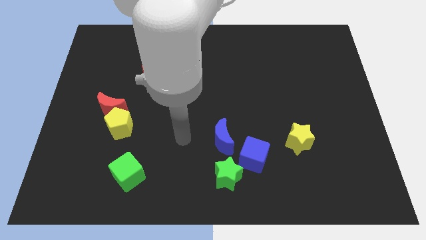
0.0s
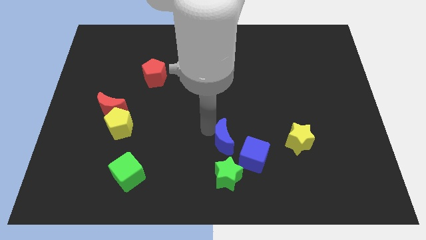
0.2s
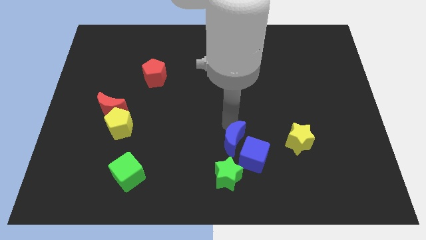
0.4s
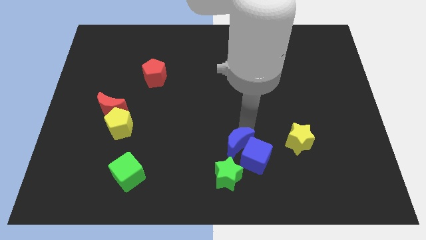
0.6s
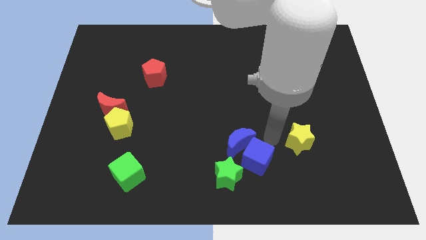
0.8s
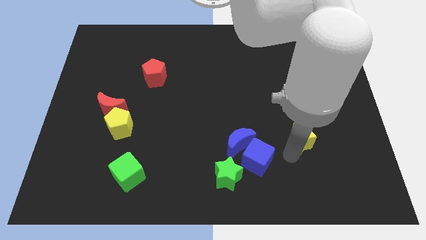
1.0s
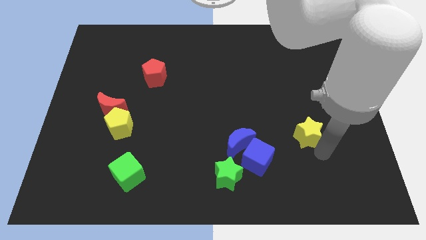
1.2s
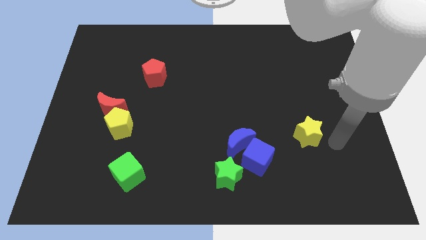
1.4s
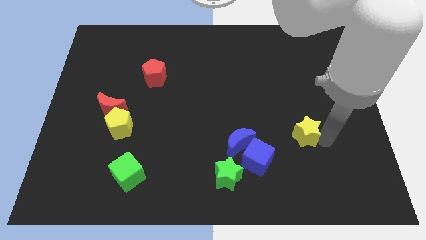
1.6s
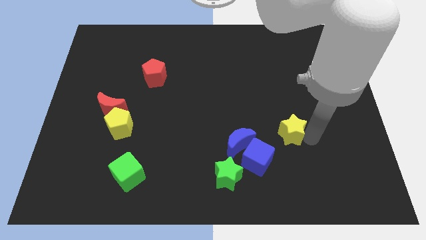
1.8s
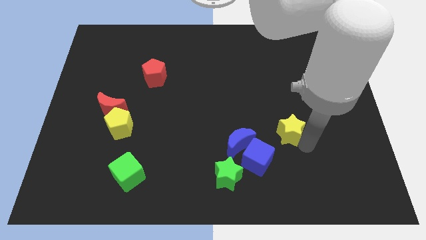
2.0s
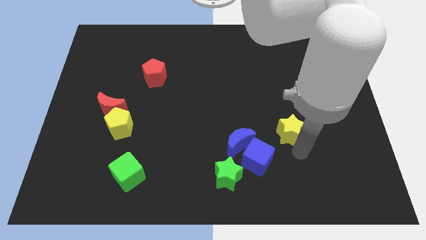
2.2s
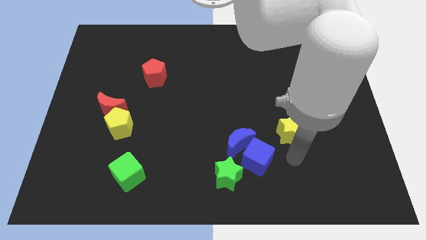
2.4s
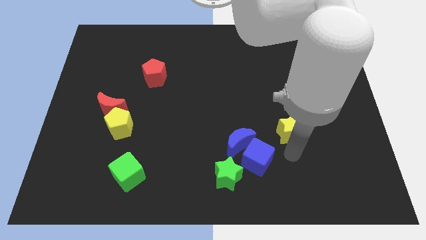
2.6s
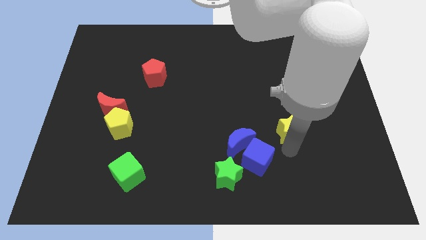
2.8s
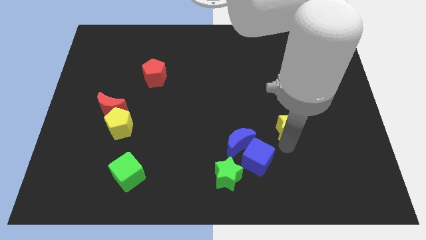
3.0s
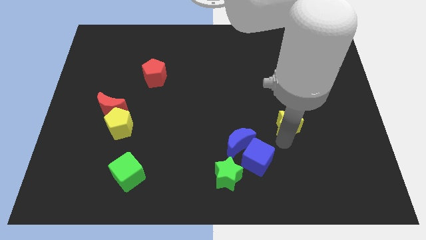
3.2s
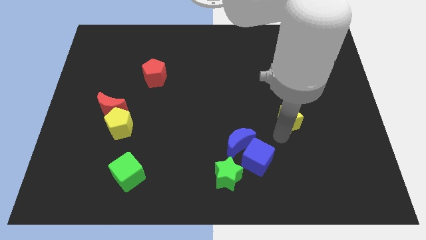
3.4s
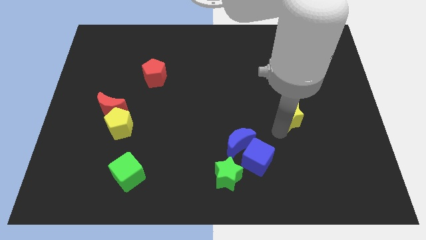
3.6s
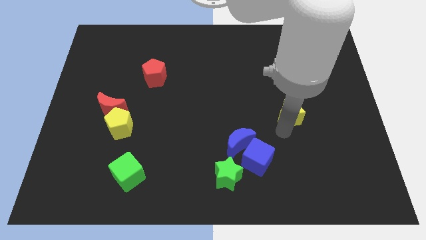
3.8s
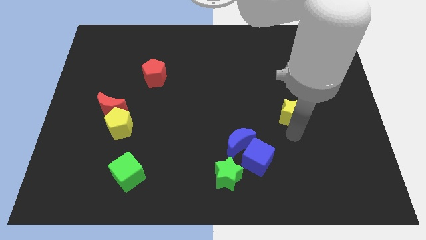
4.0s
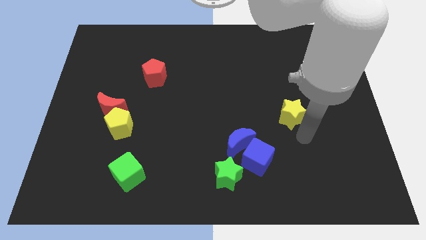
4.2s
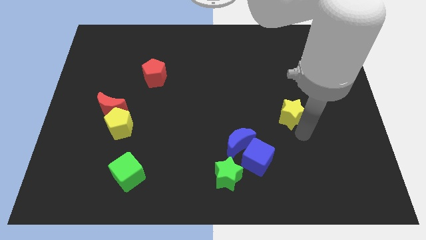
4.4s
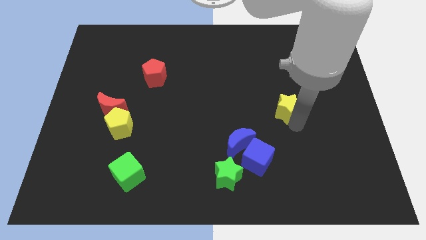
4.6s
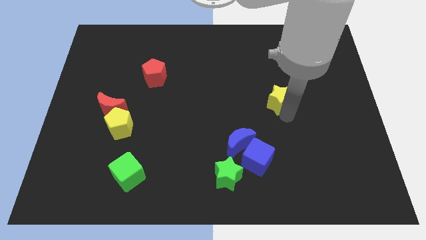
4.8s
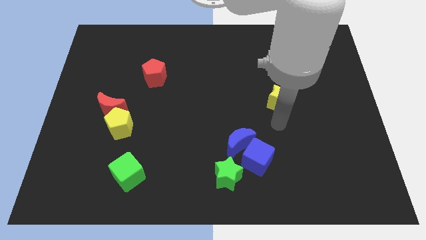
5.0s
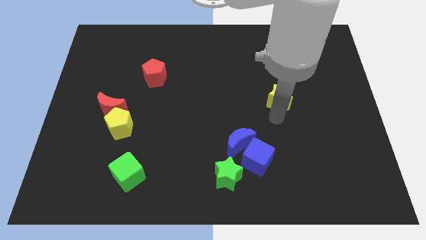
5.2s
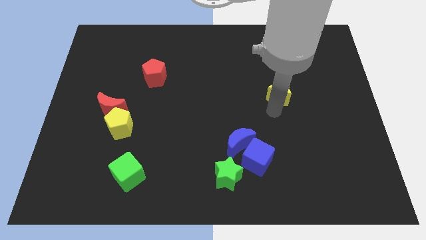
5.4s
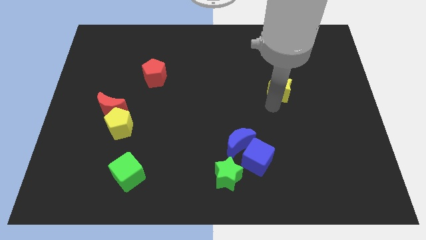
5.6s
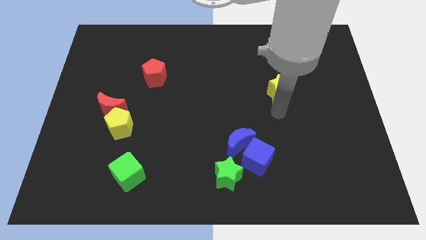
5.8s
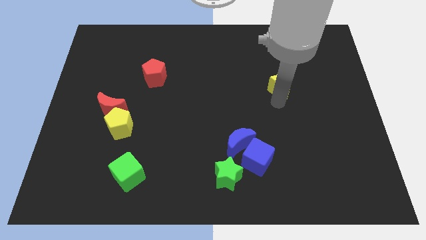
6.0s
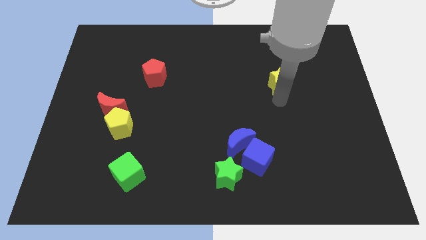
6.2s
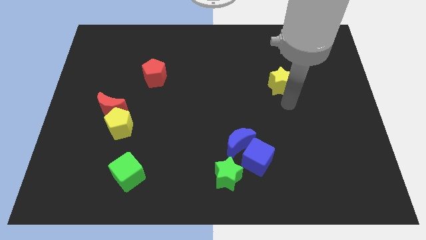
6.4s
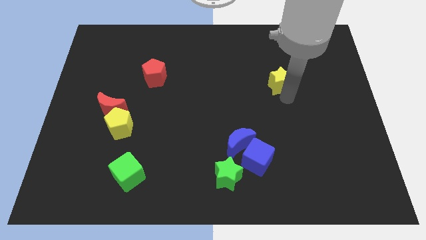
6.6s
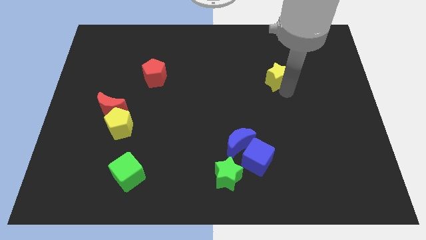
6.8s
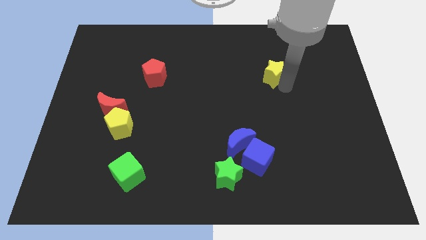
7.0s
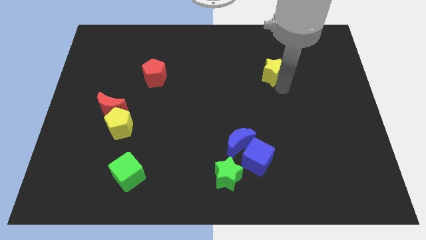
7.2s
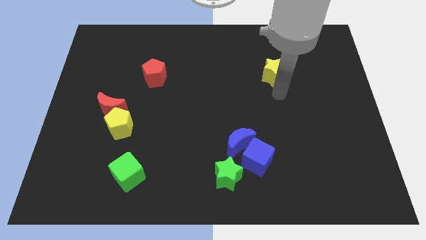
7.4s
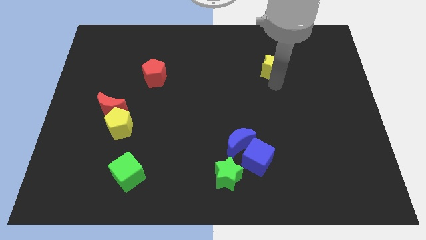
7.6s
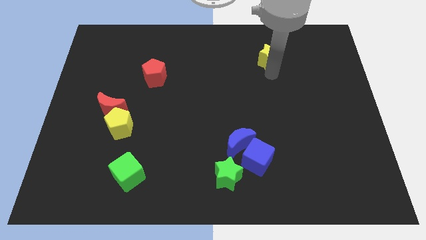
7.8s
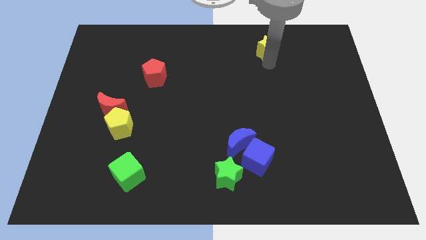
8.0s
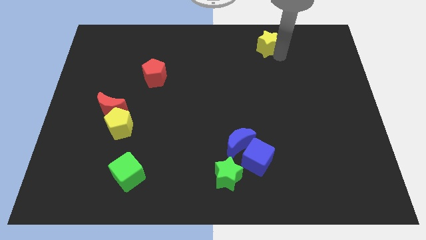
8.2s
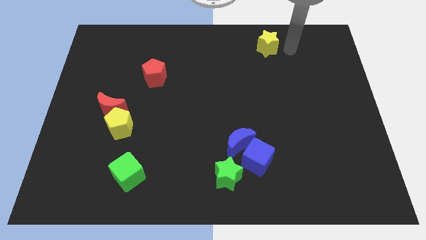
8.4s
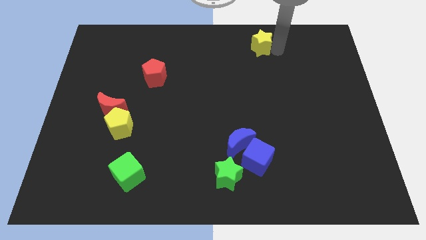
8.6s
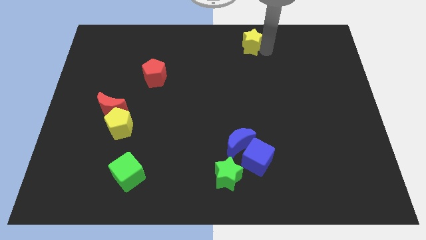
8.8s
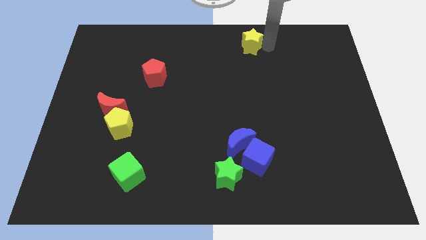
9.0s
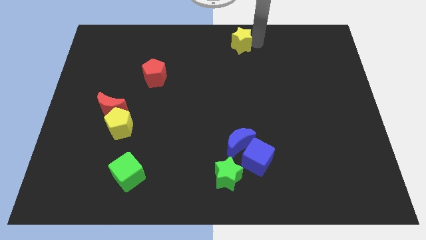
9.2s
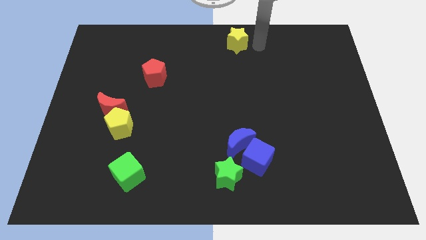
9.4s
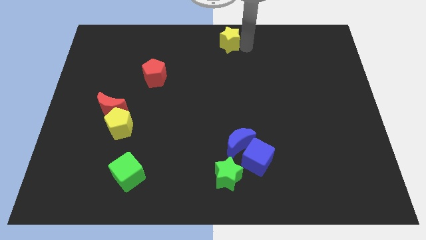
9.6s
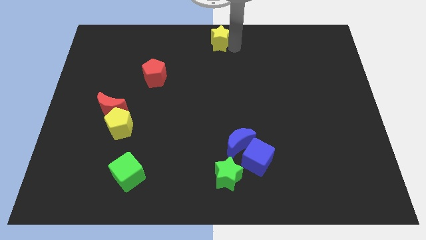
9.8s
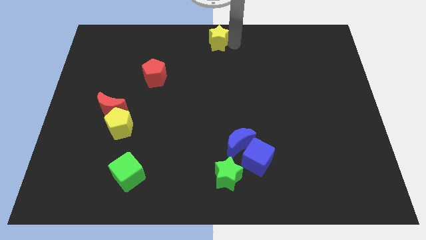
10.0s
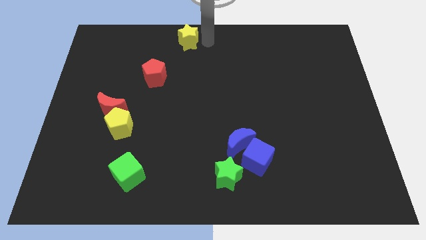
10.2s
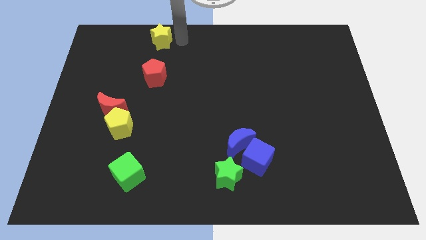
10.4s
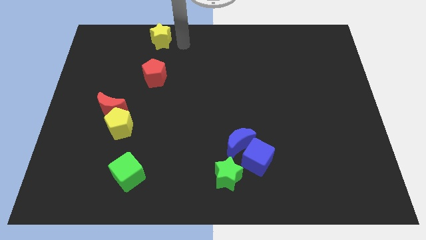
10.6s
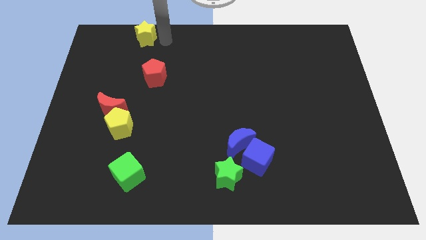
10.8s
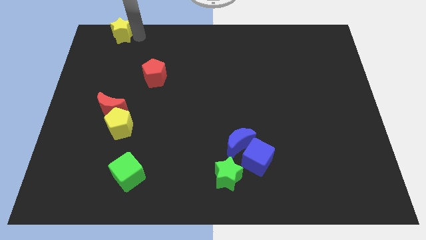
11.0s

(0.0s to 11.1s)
push the yellow star to the upper left corner

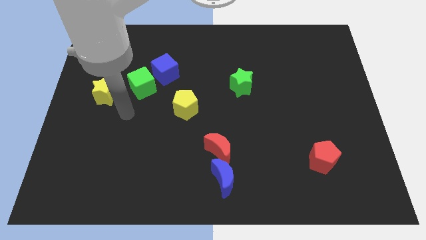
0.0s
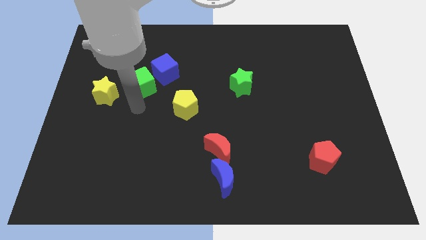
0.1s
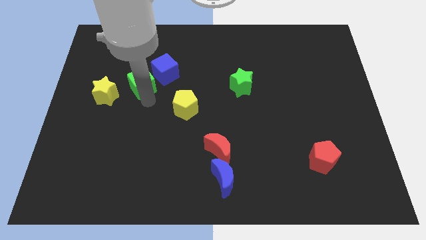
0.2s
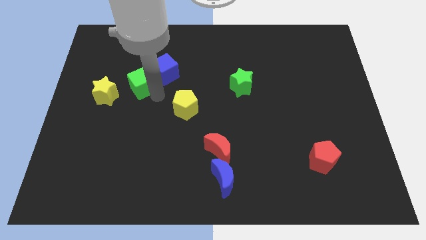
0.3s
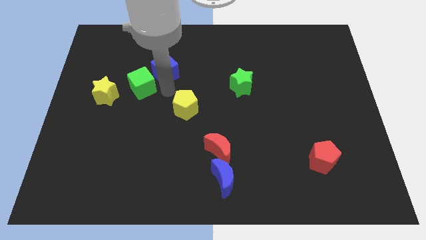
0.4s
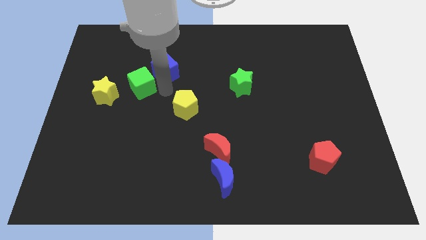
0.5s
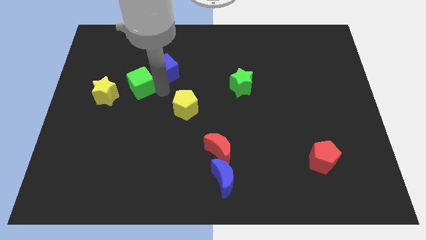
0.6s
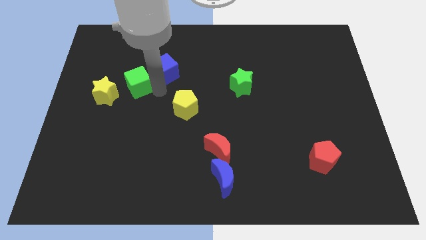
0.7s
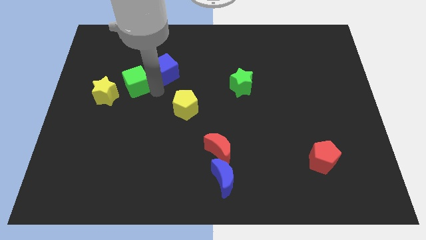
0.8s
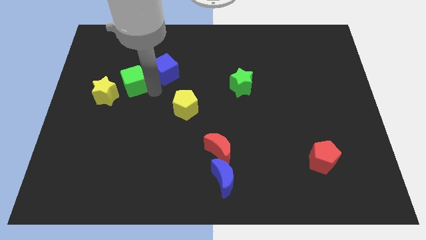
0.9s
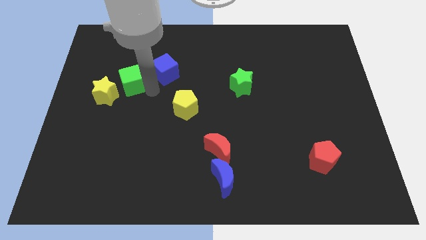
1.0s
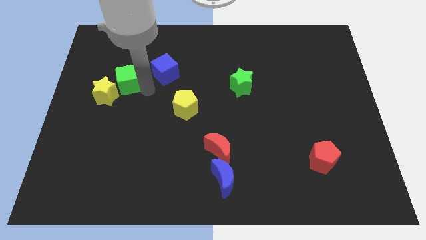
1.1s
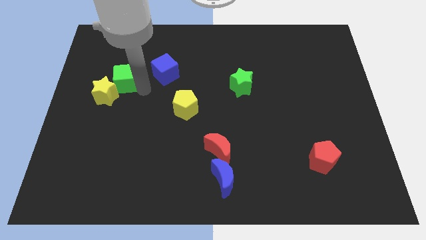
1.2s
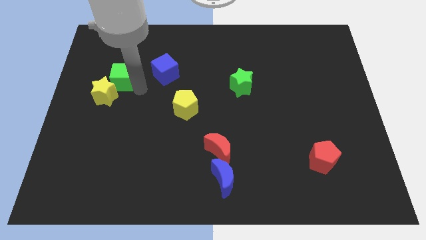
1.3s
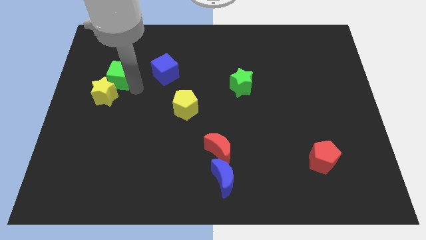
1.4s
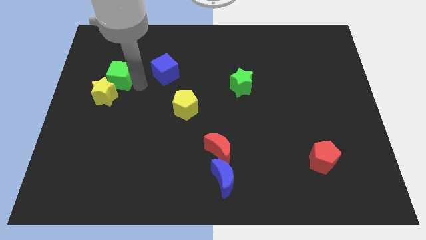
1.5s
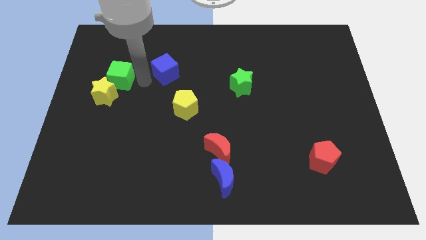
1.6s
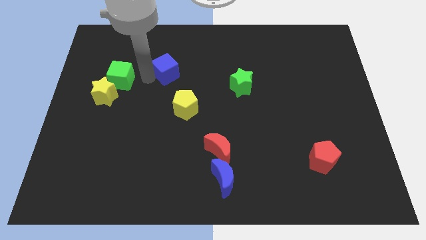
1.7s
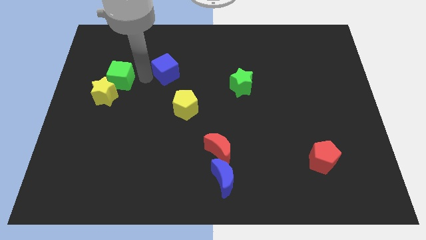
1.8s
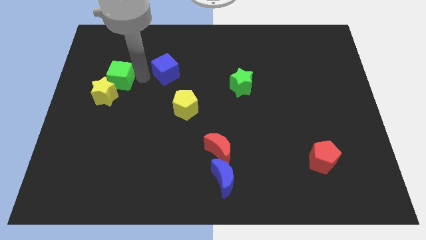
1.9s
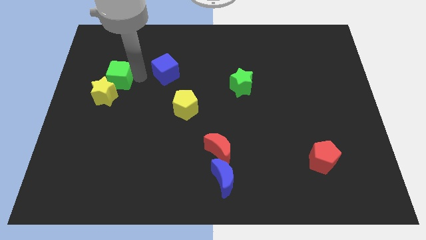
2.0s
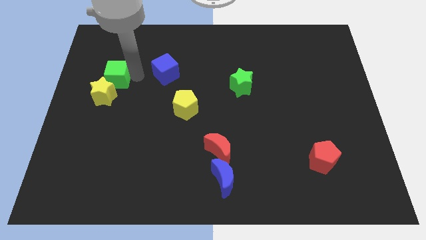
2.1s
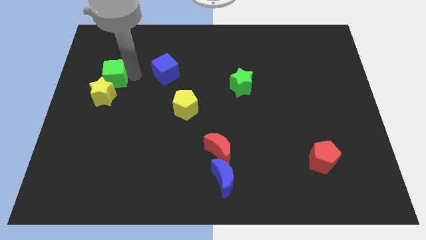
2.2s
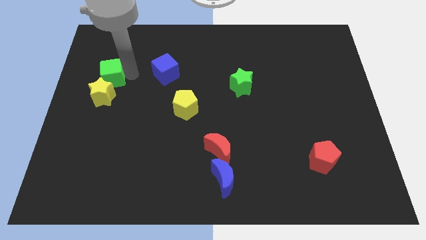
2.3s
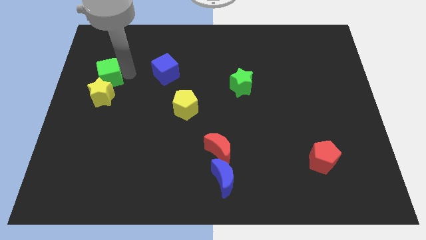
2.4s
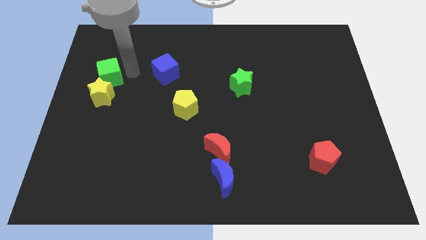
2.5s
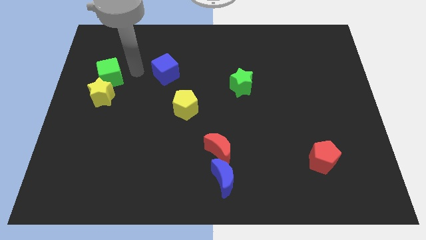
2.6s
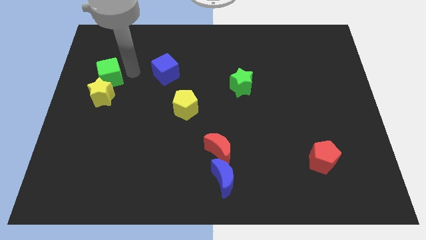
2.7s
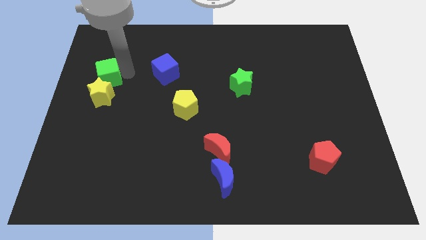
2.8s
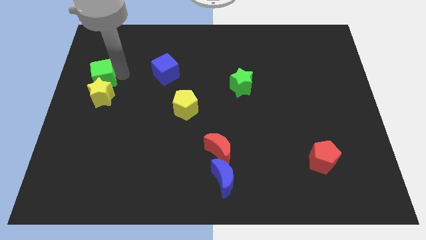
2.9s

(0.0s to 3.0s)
put the green cube to the left side
